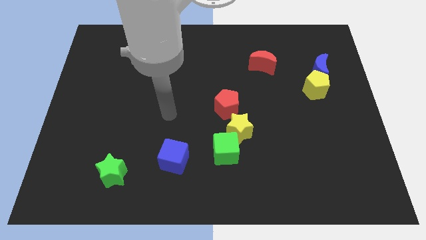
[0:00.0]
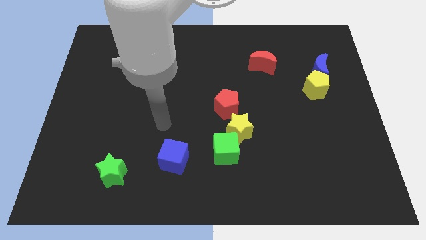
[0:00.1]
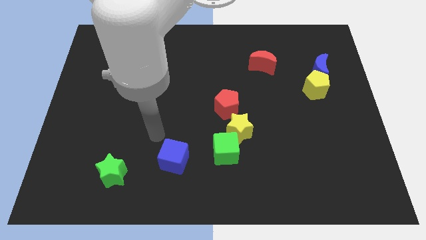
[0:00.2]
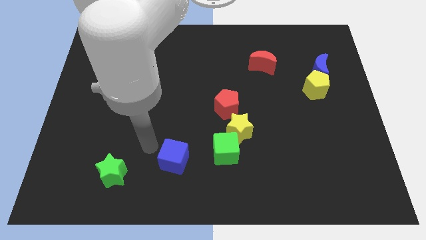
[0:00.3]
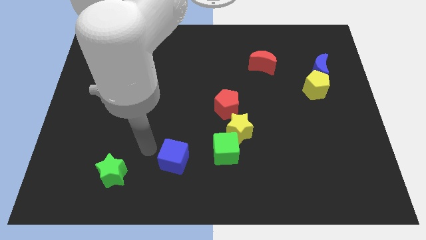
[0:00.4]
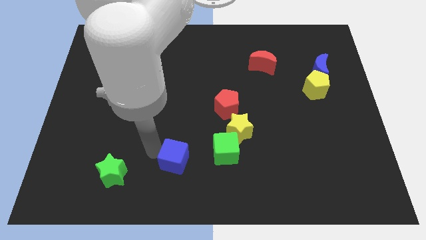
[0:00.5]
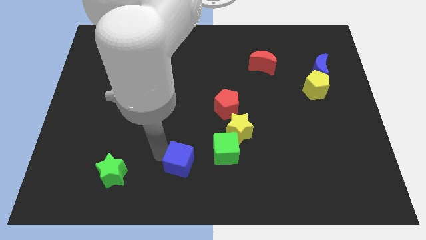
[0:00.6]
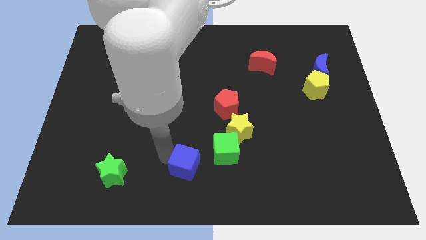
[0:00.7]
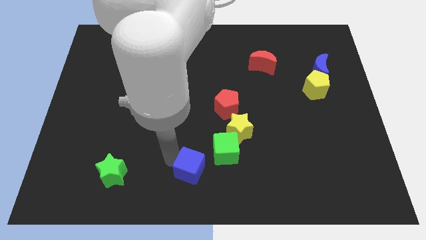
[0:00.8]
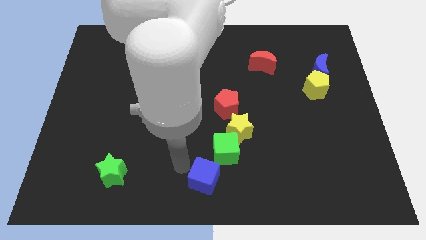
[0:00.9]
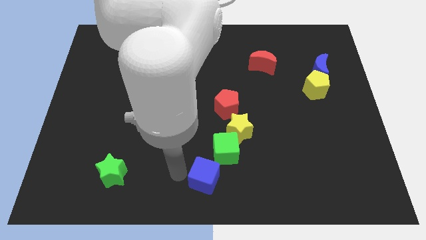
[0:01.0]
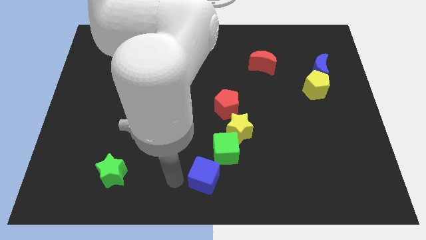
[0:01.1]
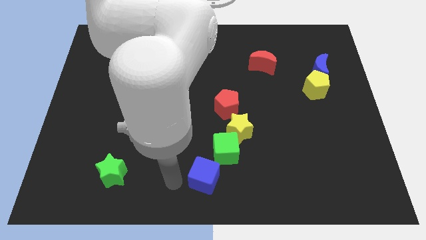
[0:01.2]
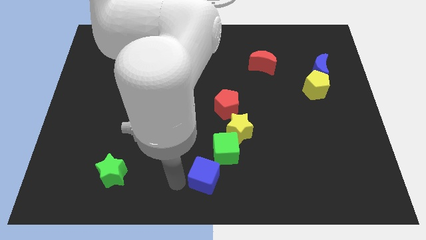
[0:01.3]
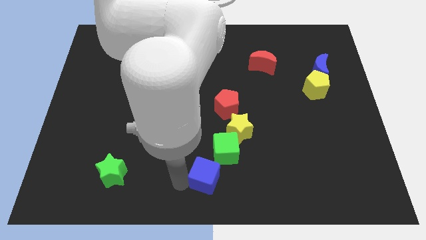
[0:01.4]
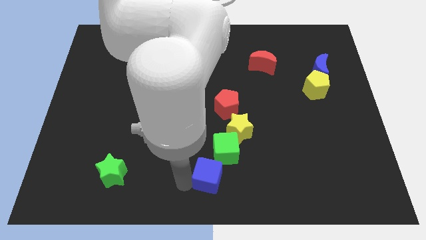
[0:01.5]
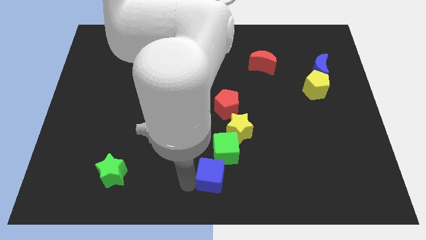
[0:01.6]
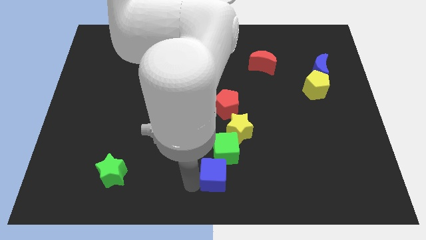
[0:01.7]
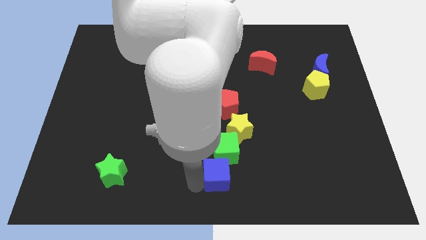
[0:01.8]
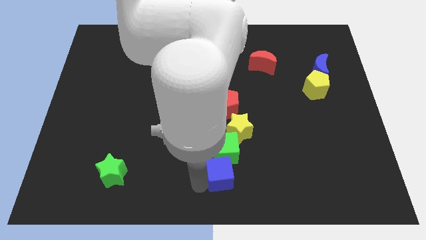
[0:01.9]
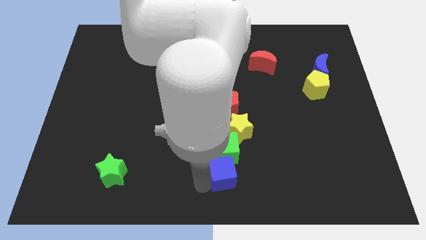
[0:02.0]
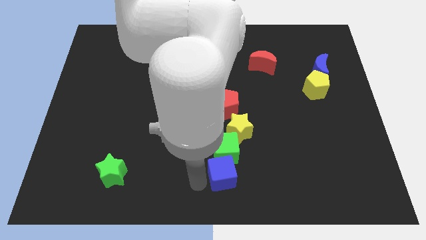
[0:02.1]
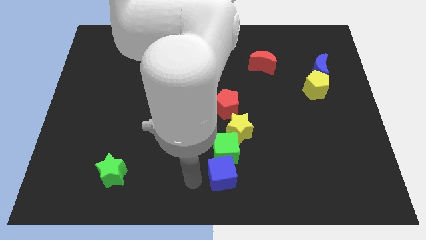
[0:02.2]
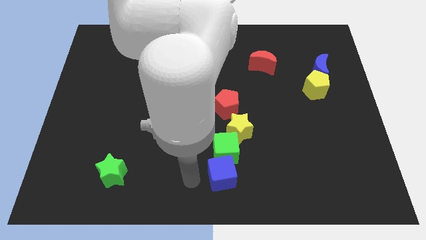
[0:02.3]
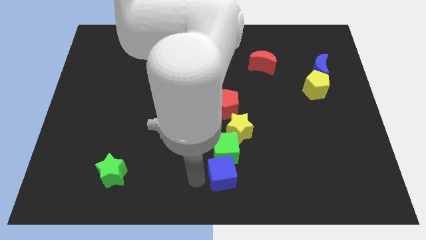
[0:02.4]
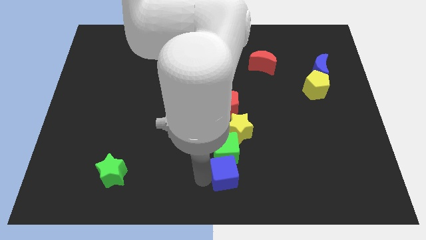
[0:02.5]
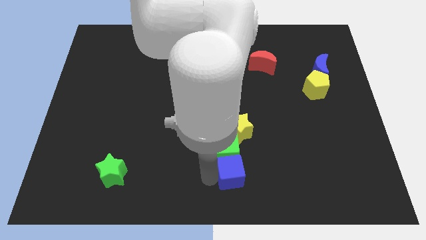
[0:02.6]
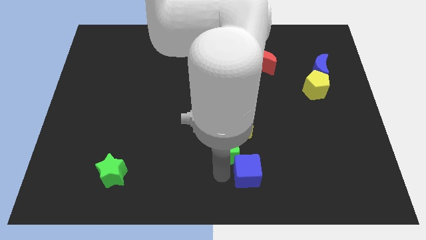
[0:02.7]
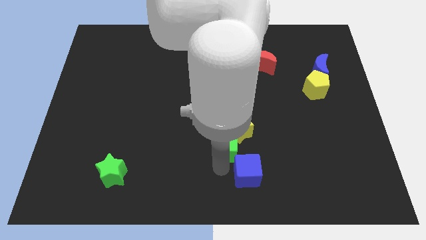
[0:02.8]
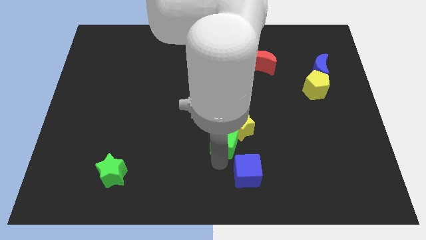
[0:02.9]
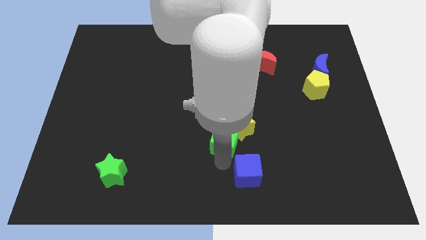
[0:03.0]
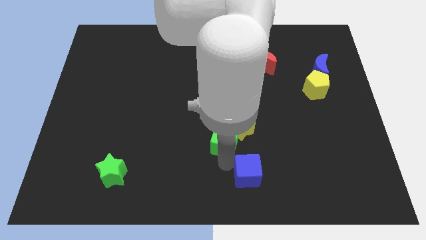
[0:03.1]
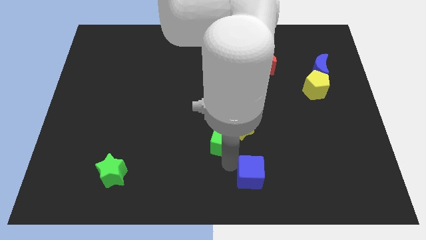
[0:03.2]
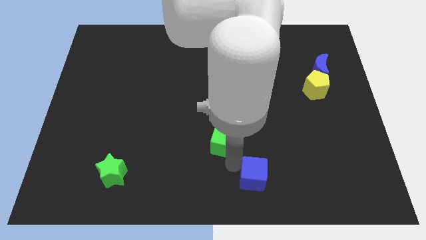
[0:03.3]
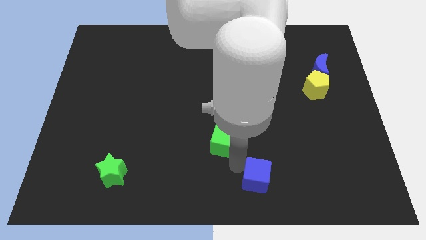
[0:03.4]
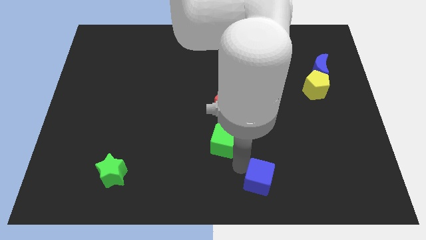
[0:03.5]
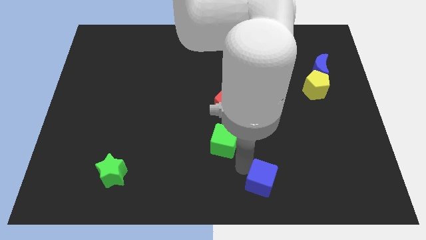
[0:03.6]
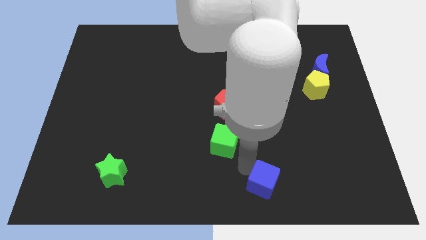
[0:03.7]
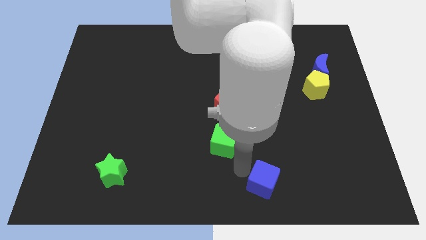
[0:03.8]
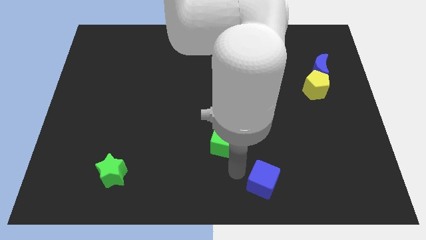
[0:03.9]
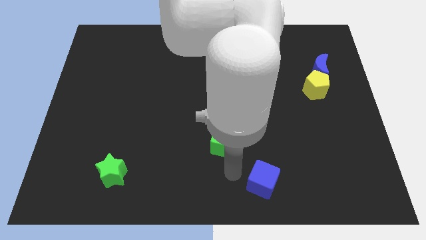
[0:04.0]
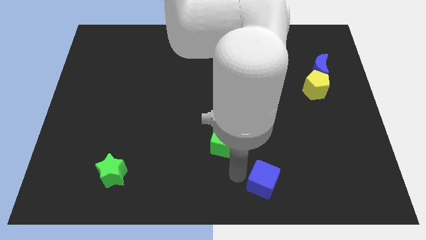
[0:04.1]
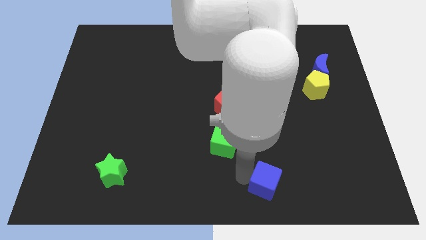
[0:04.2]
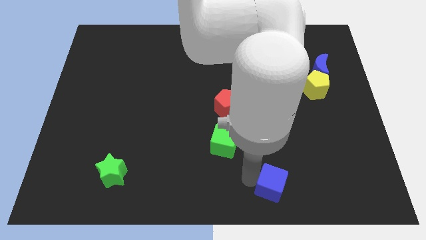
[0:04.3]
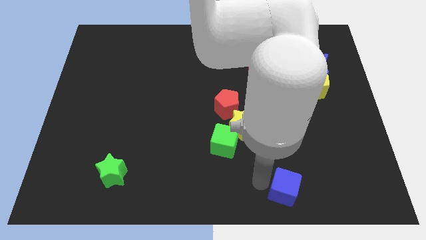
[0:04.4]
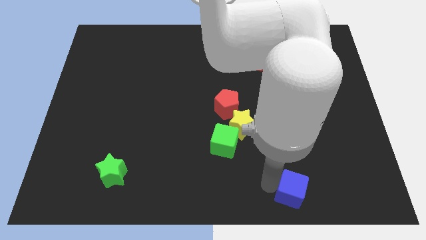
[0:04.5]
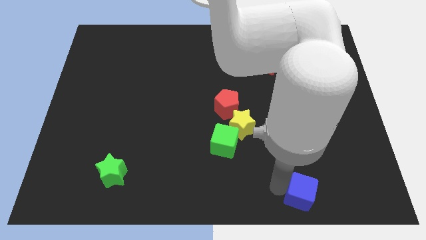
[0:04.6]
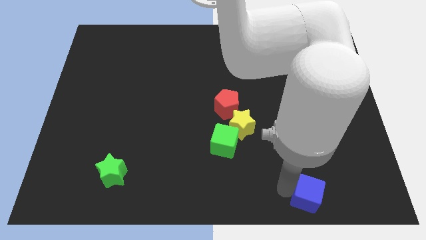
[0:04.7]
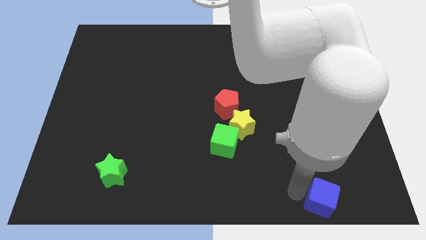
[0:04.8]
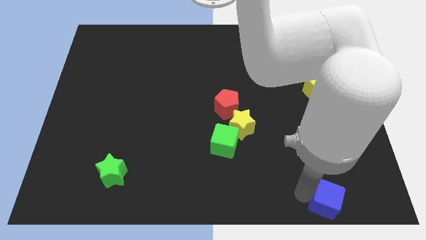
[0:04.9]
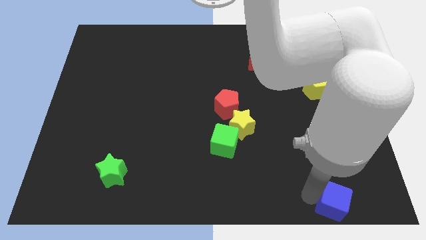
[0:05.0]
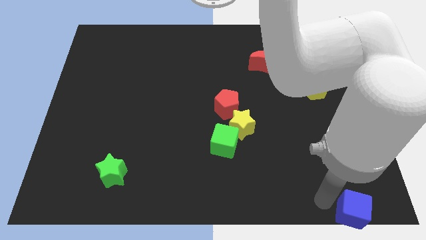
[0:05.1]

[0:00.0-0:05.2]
push the blue cube to the bottom right

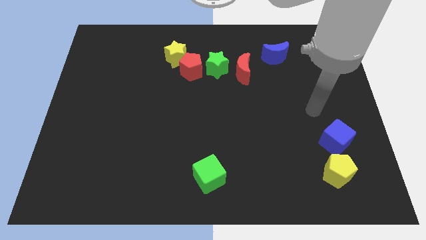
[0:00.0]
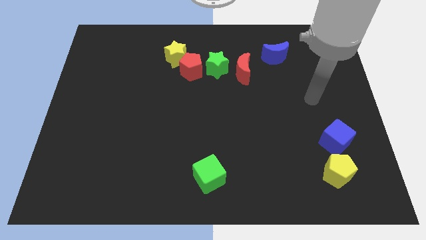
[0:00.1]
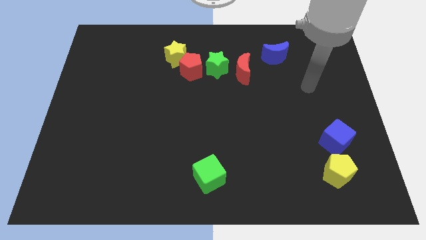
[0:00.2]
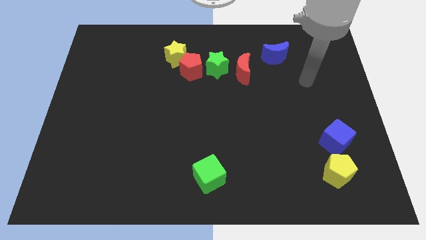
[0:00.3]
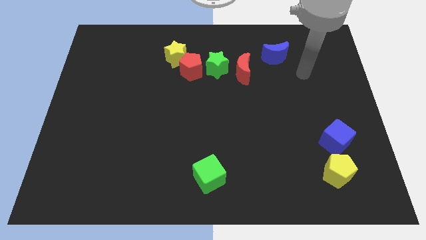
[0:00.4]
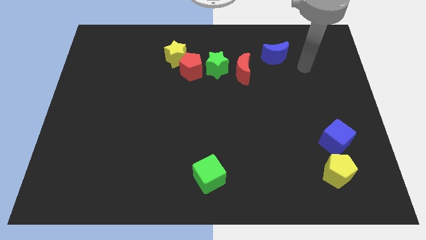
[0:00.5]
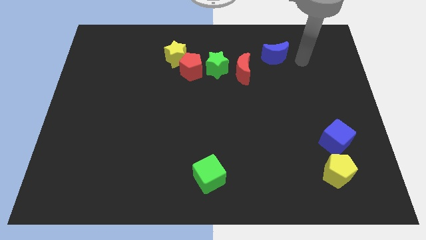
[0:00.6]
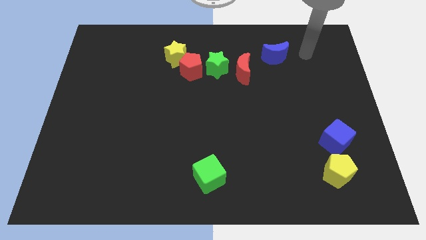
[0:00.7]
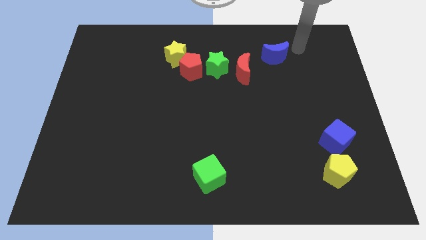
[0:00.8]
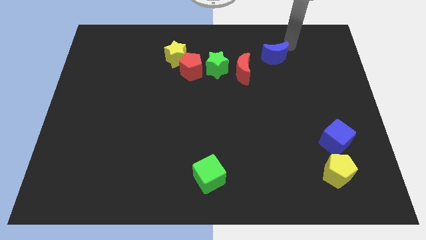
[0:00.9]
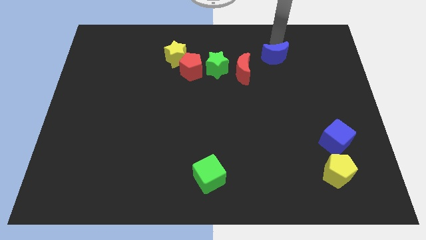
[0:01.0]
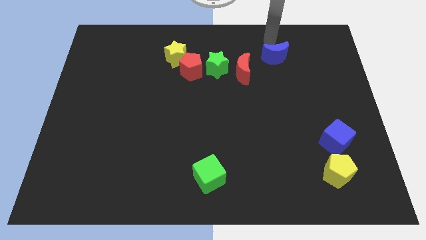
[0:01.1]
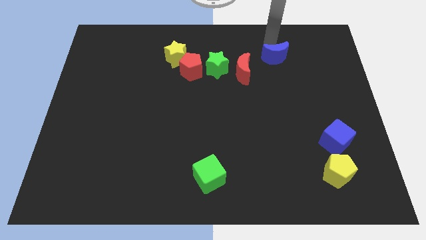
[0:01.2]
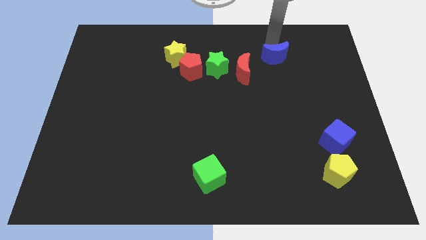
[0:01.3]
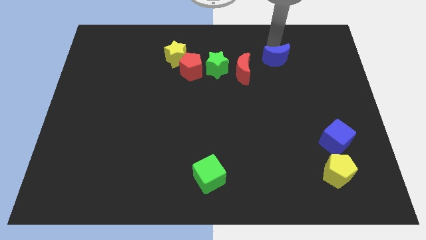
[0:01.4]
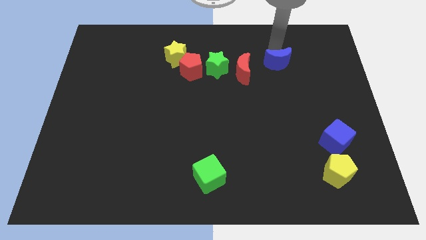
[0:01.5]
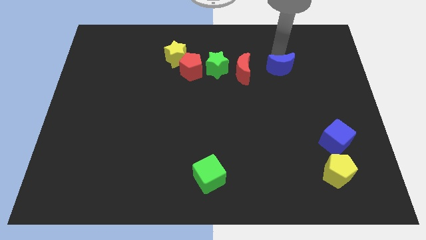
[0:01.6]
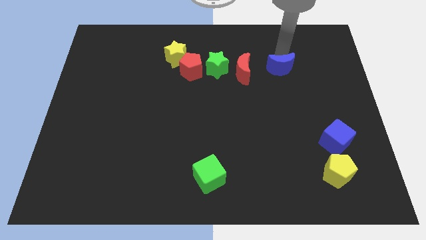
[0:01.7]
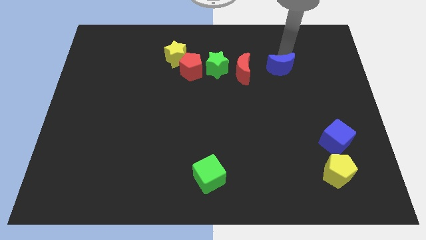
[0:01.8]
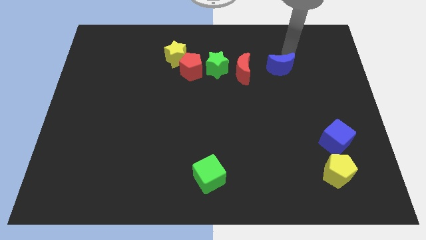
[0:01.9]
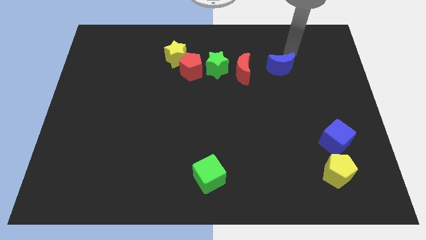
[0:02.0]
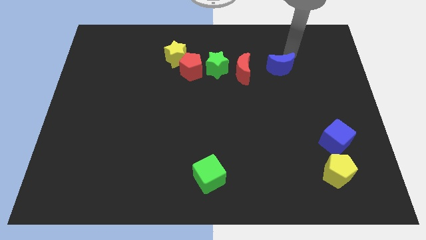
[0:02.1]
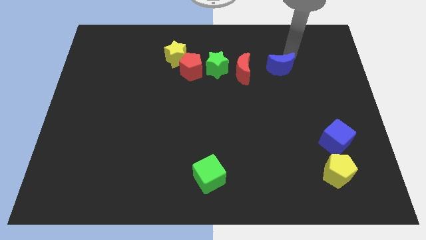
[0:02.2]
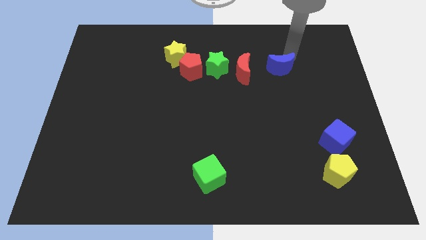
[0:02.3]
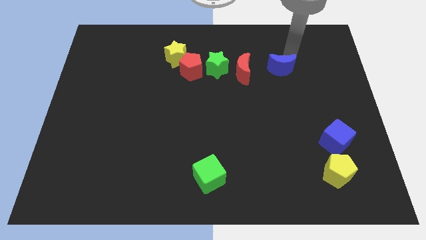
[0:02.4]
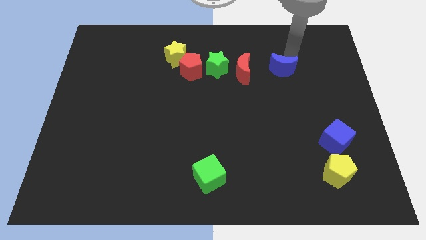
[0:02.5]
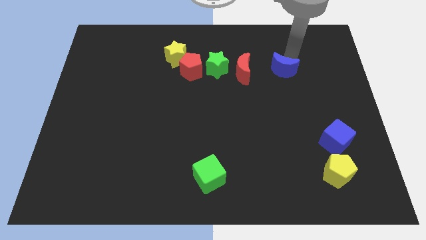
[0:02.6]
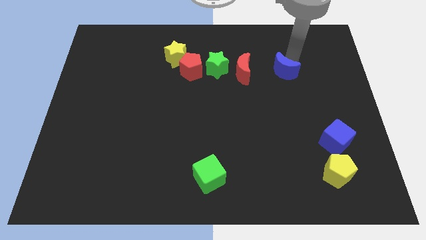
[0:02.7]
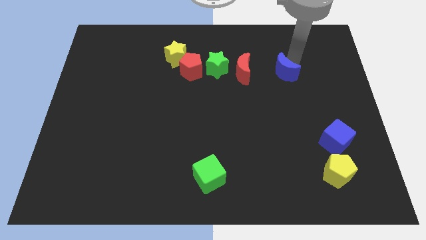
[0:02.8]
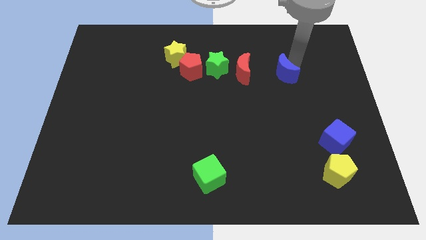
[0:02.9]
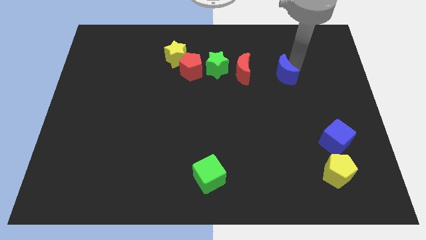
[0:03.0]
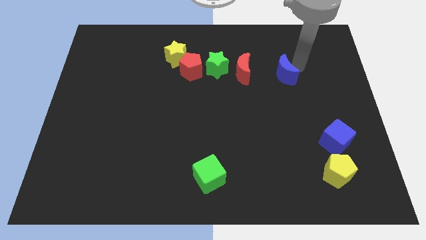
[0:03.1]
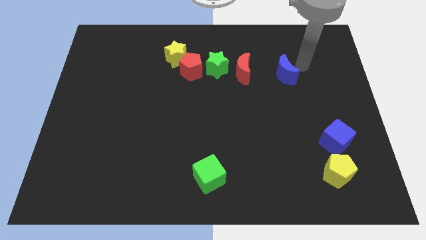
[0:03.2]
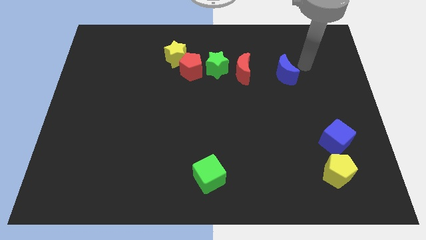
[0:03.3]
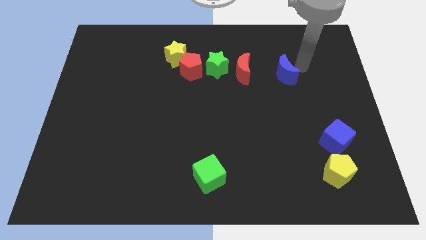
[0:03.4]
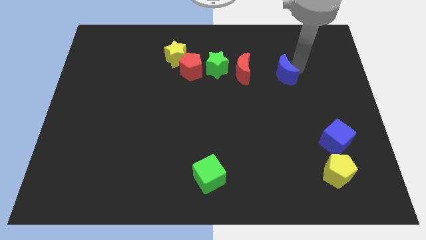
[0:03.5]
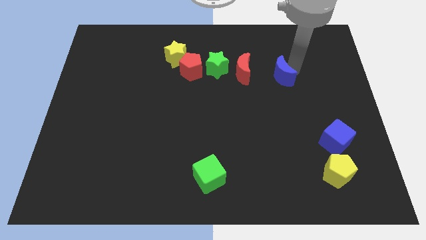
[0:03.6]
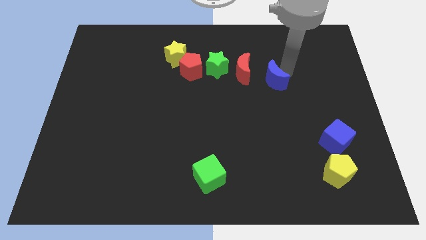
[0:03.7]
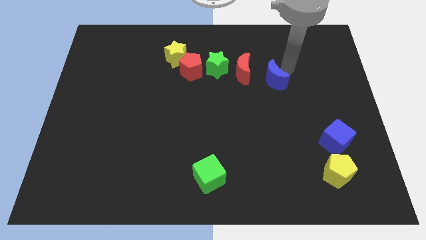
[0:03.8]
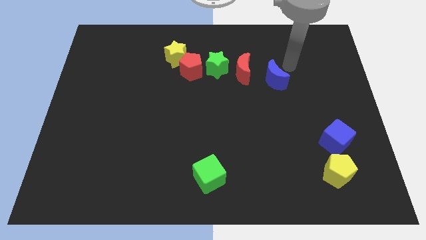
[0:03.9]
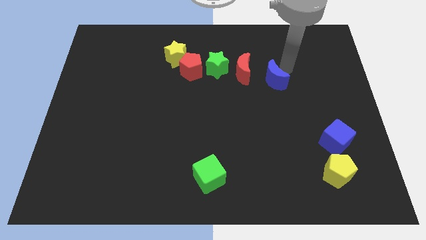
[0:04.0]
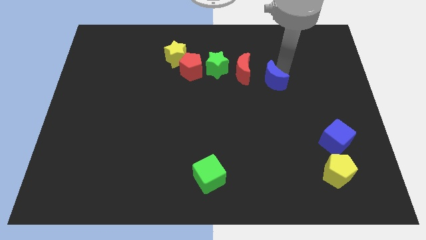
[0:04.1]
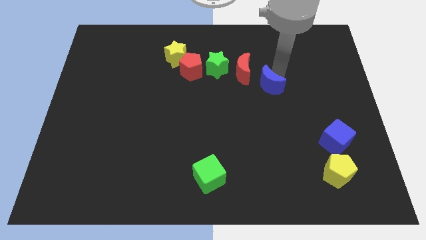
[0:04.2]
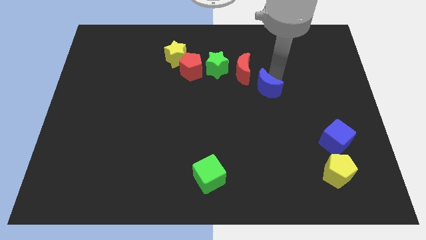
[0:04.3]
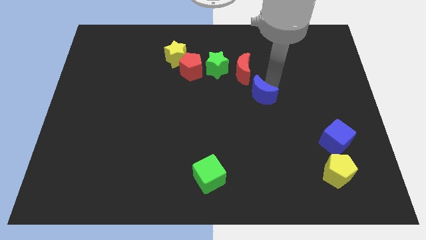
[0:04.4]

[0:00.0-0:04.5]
put the blue moon to the center
